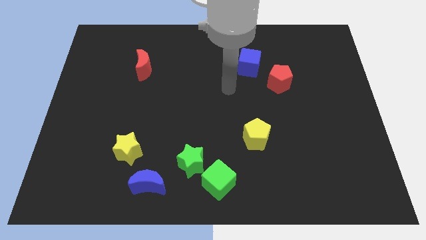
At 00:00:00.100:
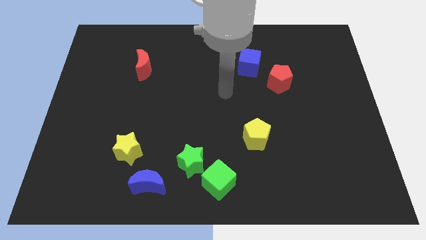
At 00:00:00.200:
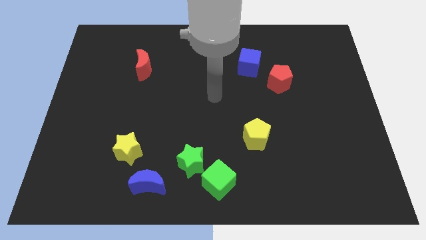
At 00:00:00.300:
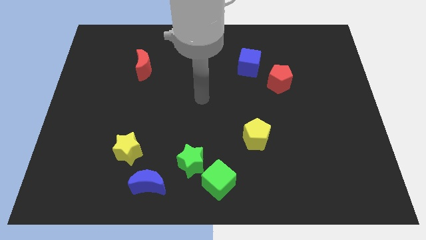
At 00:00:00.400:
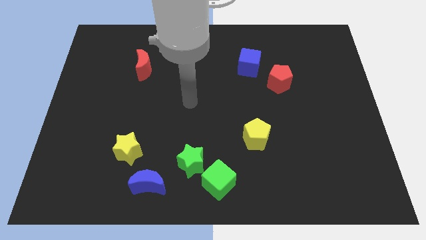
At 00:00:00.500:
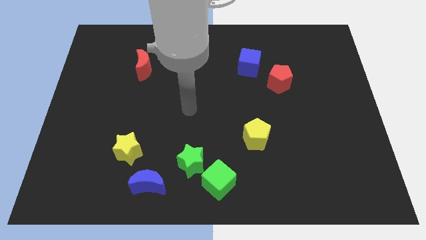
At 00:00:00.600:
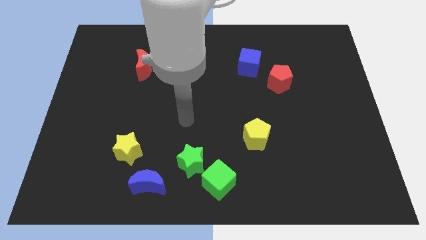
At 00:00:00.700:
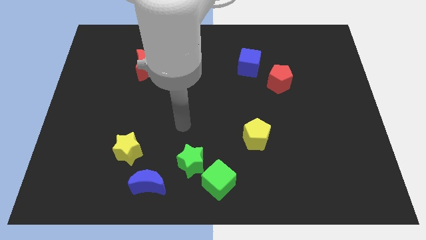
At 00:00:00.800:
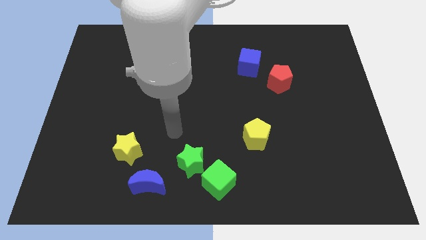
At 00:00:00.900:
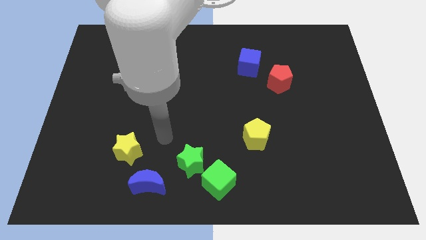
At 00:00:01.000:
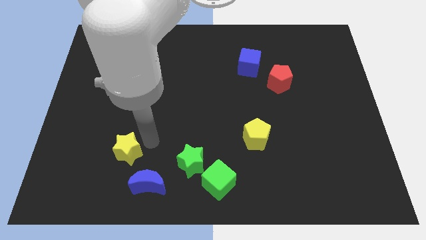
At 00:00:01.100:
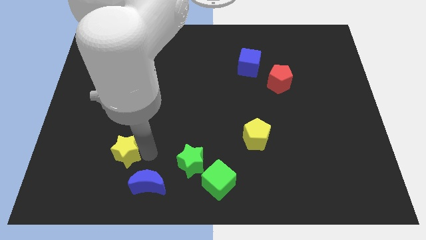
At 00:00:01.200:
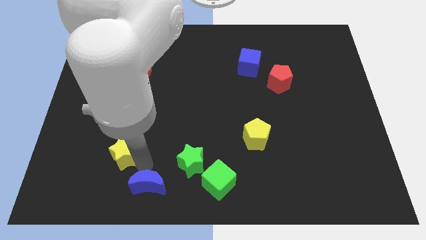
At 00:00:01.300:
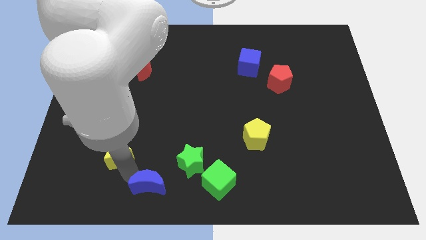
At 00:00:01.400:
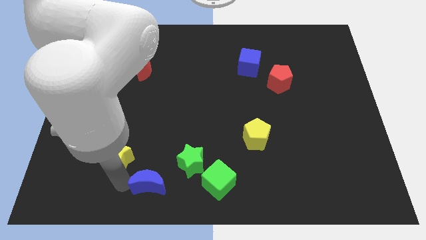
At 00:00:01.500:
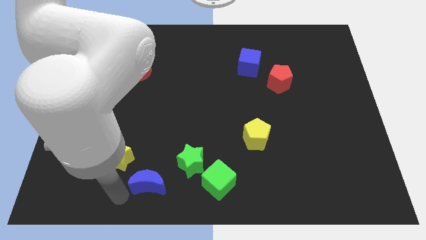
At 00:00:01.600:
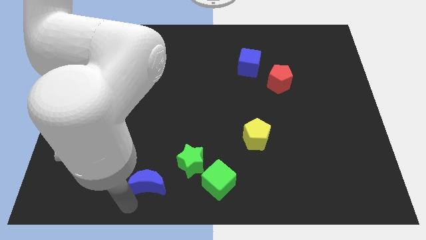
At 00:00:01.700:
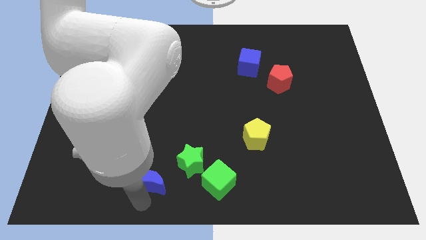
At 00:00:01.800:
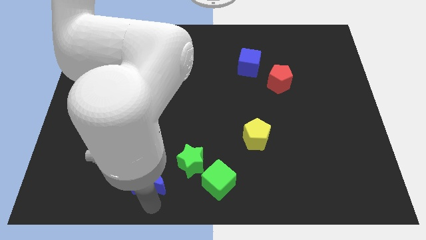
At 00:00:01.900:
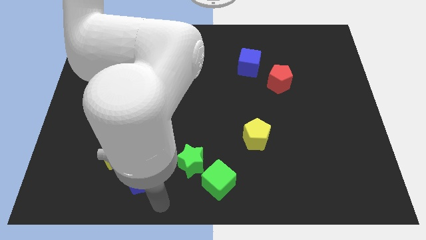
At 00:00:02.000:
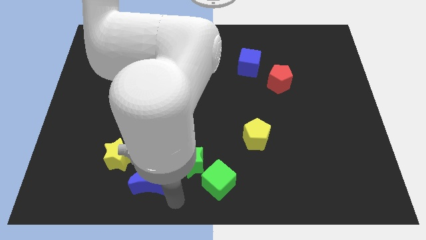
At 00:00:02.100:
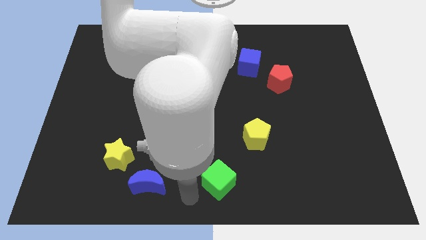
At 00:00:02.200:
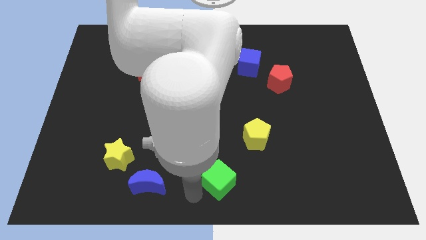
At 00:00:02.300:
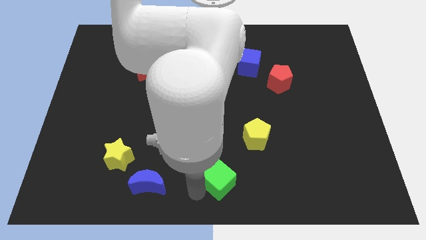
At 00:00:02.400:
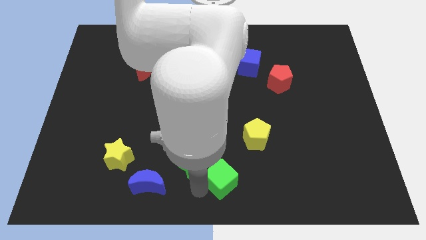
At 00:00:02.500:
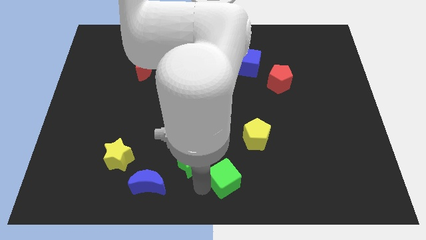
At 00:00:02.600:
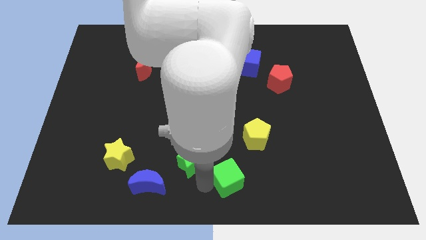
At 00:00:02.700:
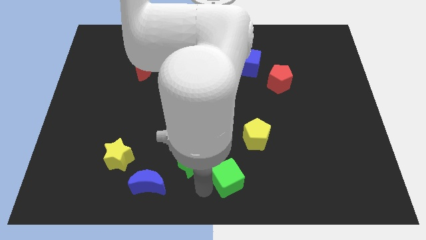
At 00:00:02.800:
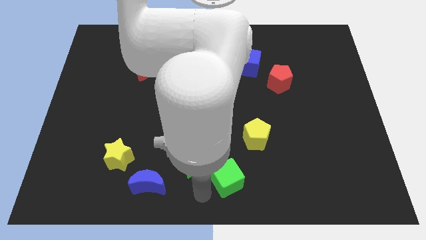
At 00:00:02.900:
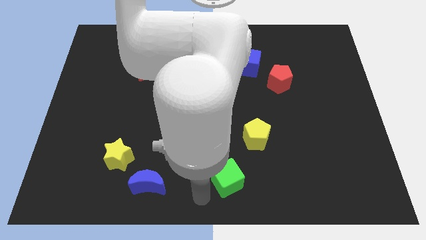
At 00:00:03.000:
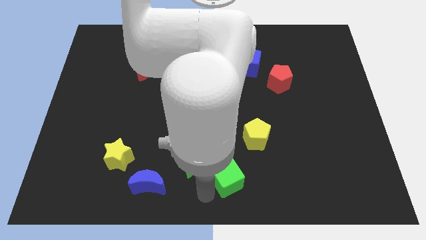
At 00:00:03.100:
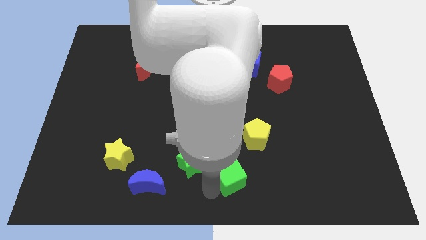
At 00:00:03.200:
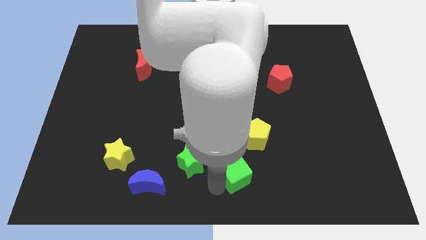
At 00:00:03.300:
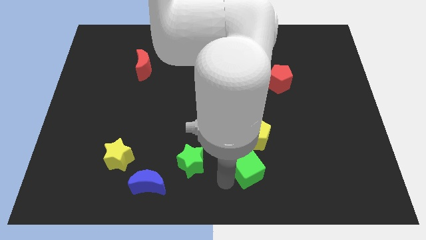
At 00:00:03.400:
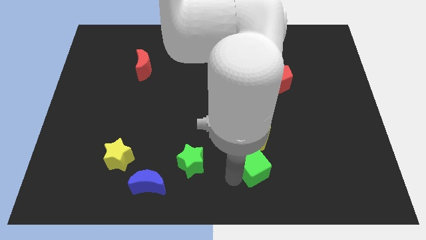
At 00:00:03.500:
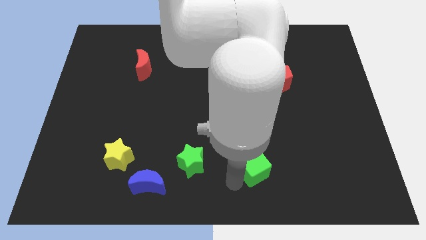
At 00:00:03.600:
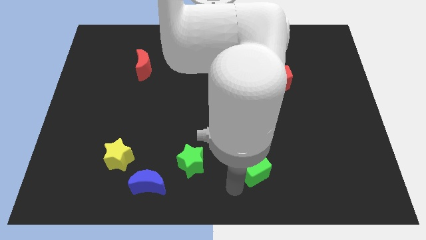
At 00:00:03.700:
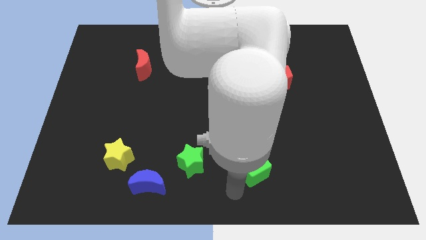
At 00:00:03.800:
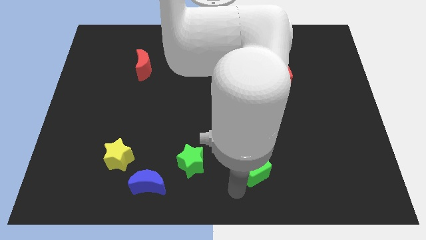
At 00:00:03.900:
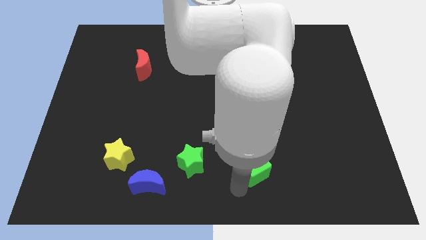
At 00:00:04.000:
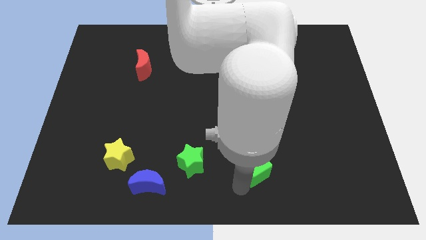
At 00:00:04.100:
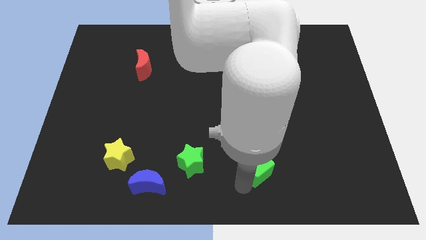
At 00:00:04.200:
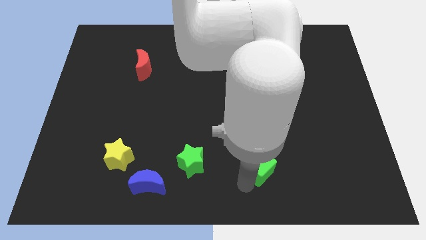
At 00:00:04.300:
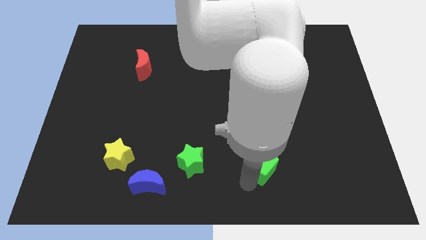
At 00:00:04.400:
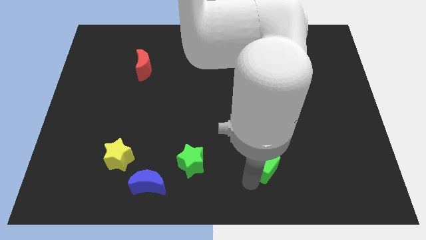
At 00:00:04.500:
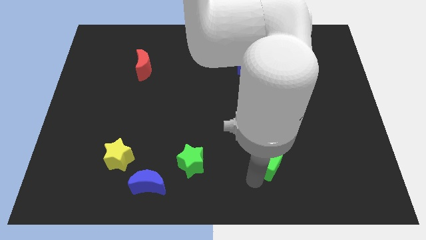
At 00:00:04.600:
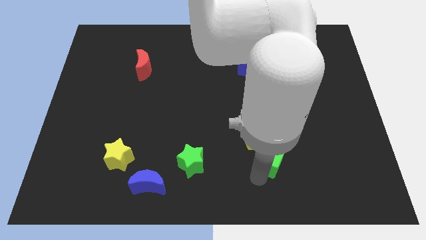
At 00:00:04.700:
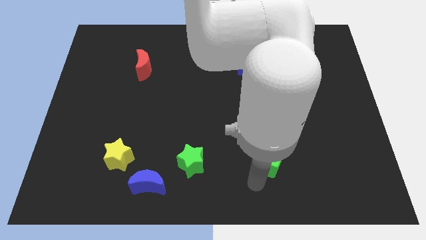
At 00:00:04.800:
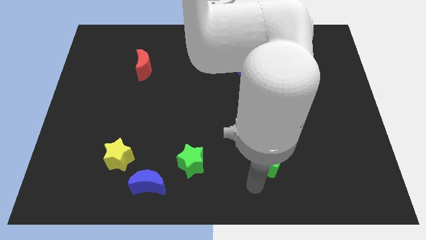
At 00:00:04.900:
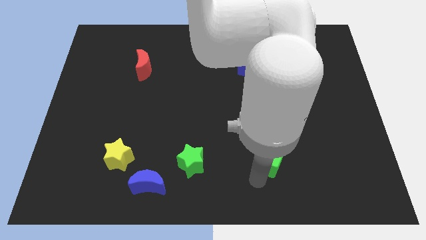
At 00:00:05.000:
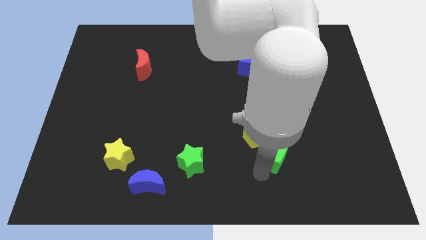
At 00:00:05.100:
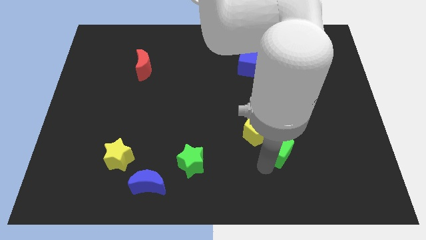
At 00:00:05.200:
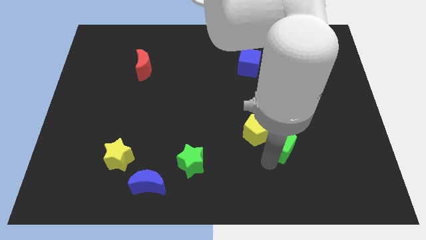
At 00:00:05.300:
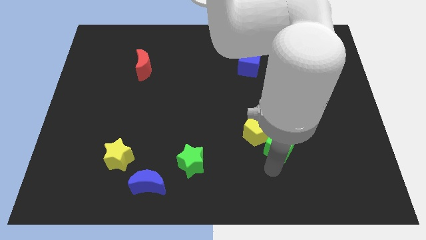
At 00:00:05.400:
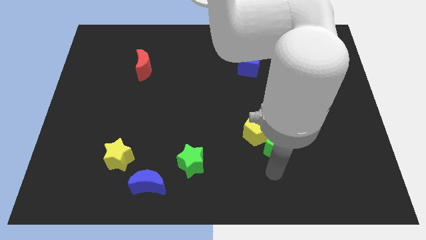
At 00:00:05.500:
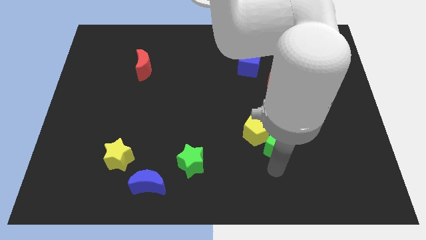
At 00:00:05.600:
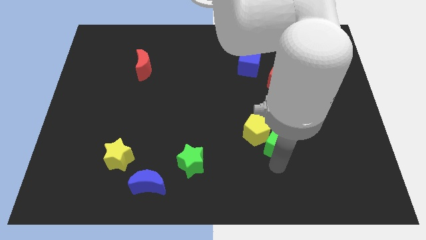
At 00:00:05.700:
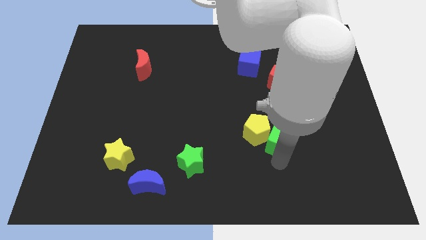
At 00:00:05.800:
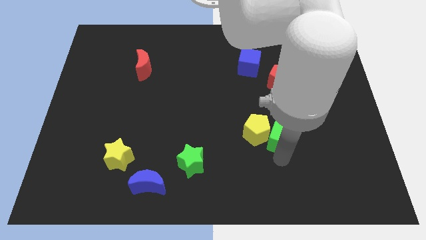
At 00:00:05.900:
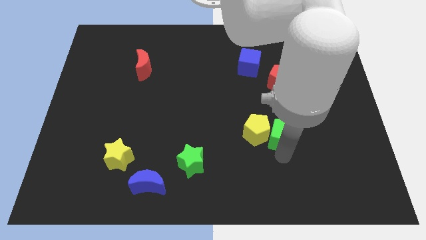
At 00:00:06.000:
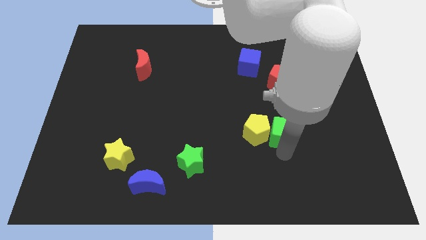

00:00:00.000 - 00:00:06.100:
slide the green cube to the bottom side of the red pentagon

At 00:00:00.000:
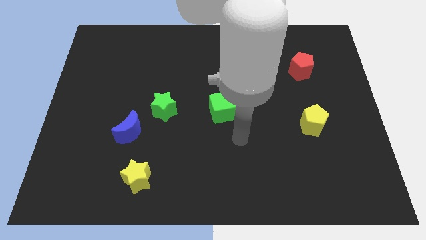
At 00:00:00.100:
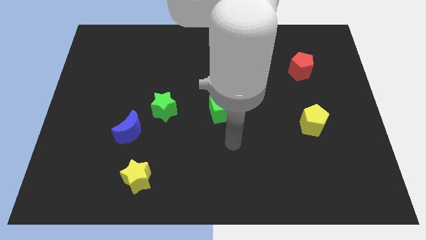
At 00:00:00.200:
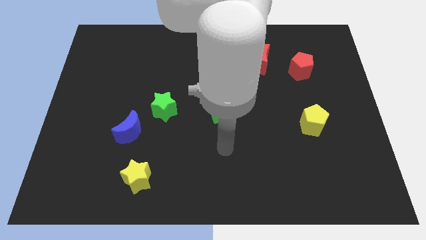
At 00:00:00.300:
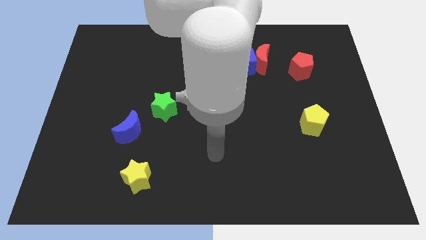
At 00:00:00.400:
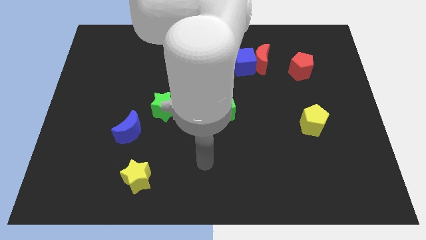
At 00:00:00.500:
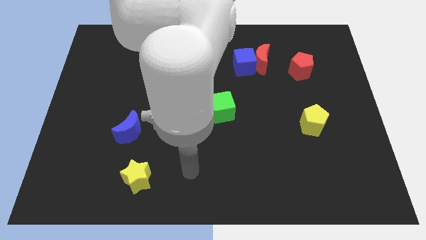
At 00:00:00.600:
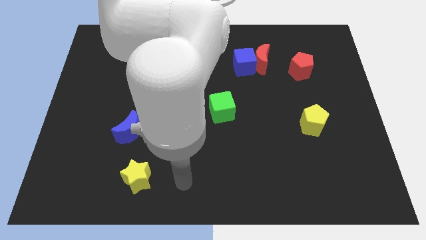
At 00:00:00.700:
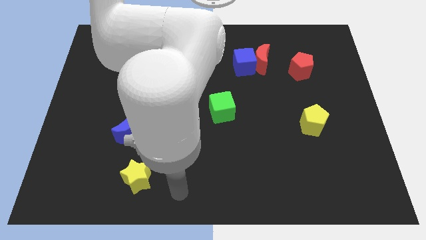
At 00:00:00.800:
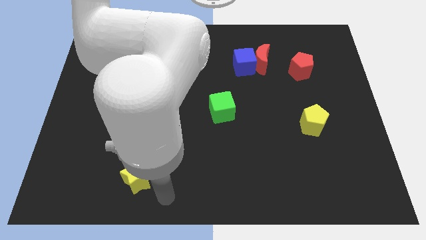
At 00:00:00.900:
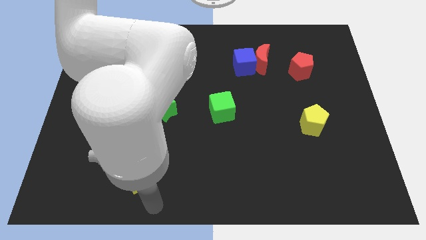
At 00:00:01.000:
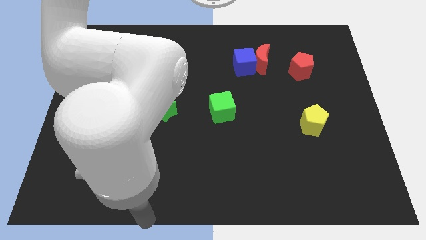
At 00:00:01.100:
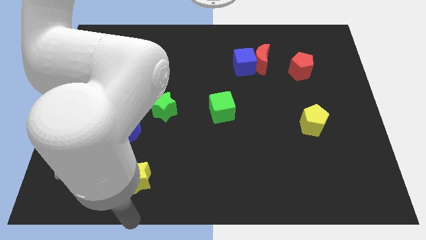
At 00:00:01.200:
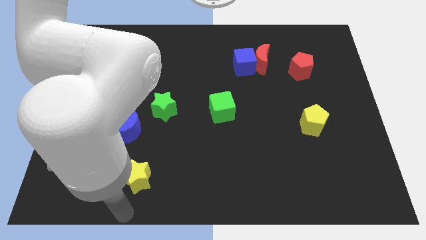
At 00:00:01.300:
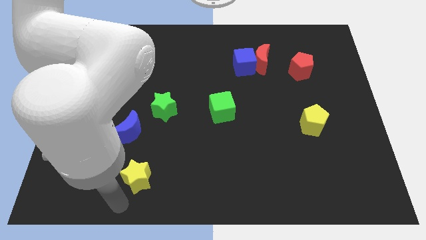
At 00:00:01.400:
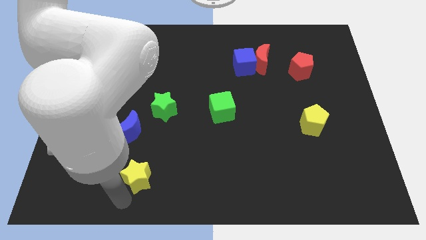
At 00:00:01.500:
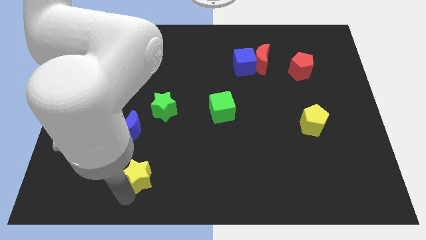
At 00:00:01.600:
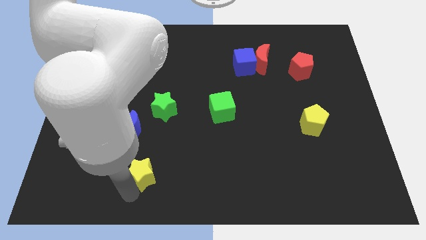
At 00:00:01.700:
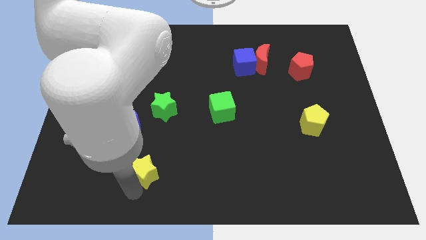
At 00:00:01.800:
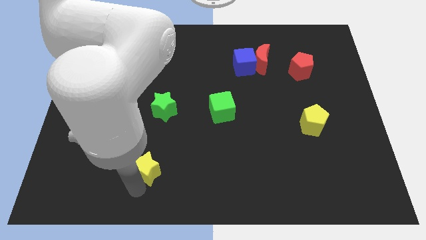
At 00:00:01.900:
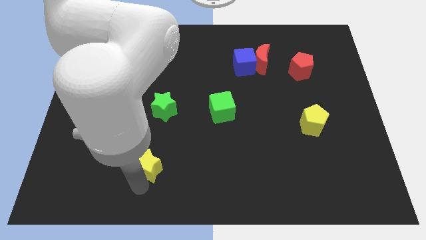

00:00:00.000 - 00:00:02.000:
move the yellow star to the bottom side of the green star
